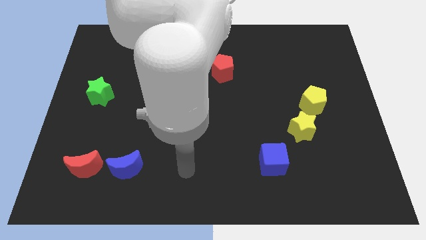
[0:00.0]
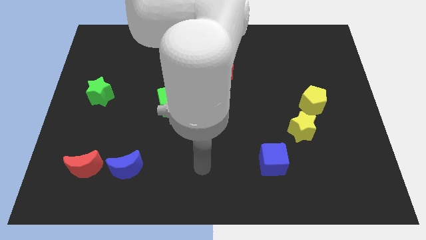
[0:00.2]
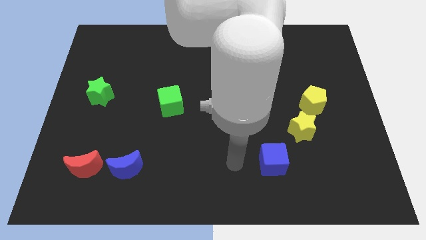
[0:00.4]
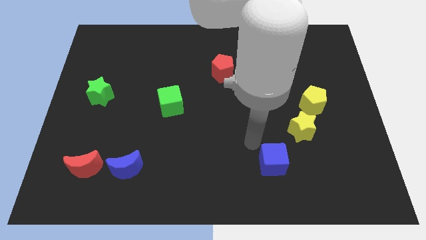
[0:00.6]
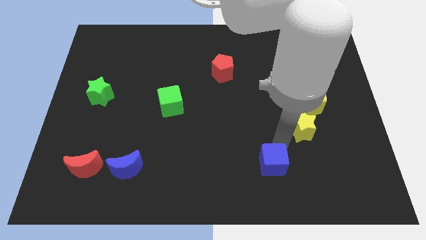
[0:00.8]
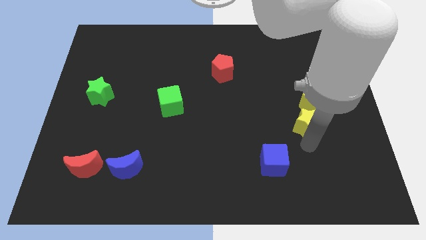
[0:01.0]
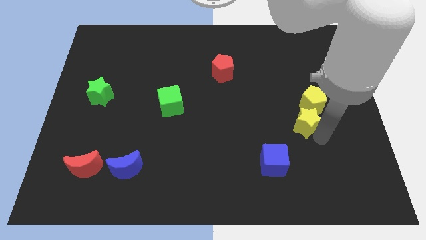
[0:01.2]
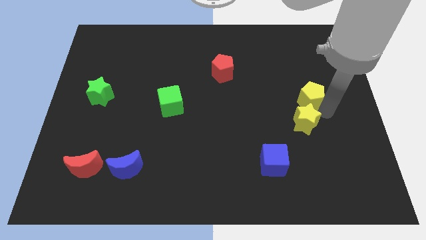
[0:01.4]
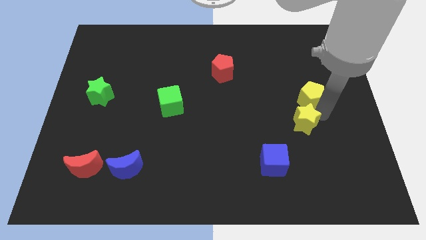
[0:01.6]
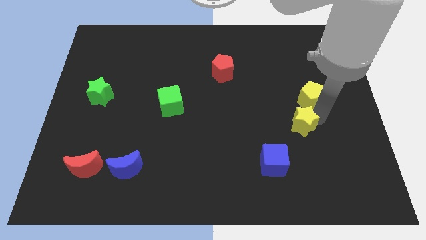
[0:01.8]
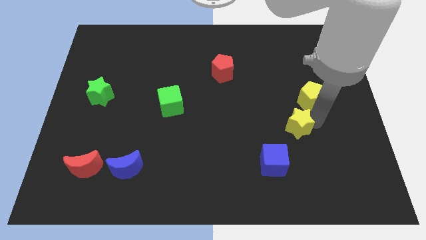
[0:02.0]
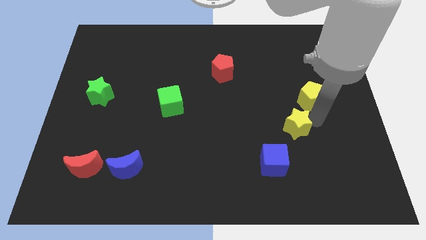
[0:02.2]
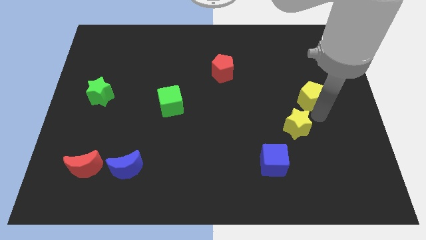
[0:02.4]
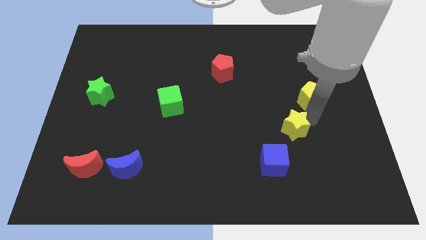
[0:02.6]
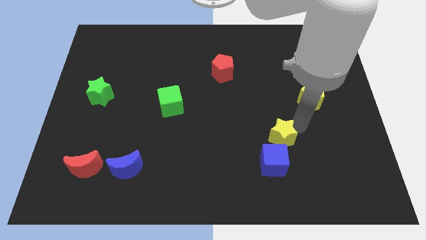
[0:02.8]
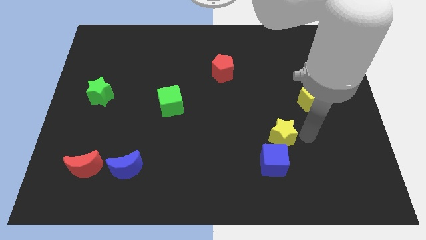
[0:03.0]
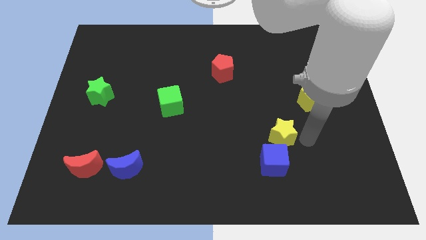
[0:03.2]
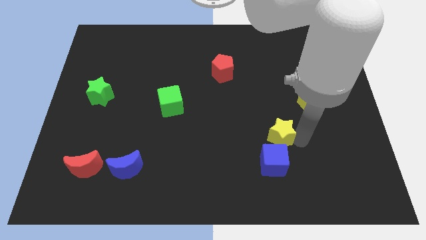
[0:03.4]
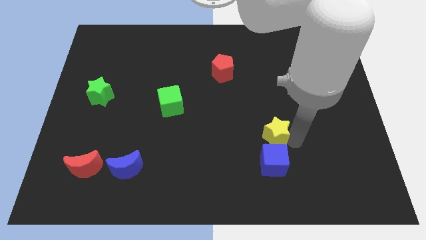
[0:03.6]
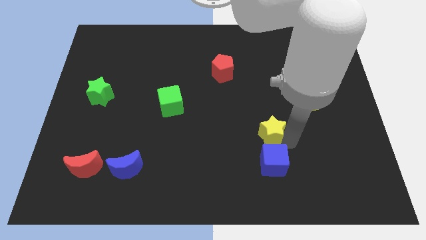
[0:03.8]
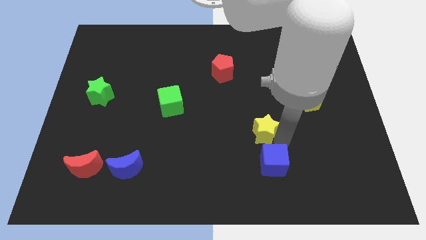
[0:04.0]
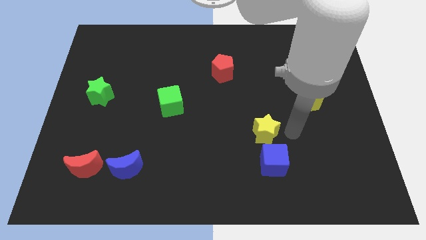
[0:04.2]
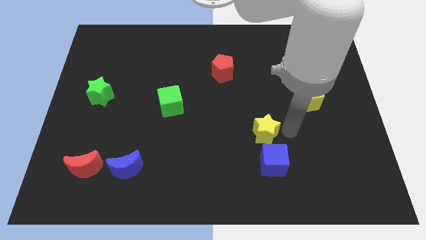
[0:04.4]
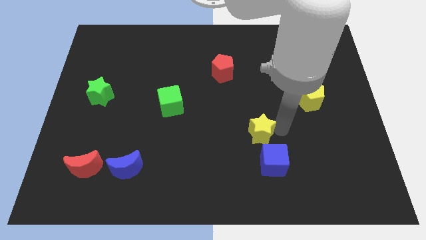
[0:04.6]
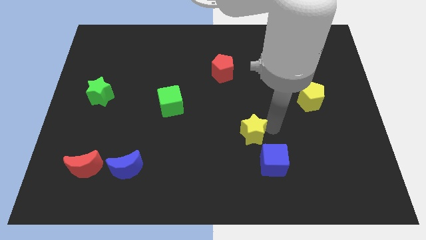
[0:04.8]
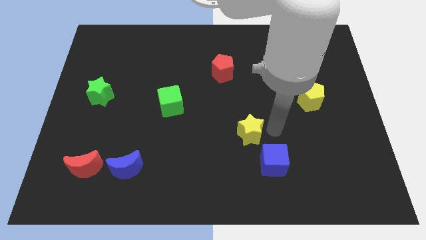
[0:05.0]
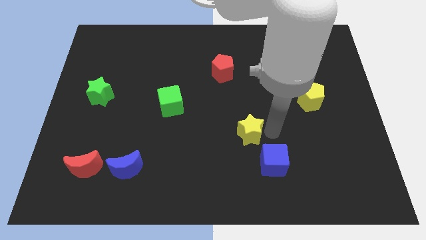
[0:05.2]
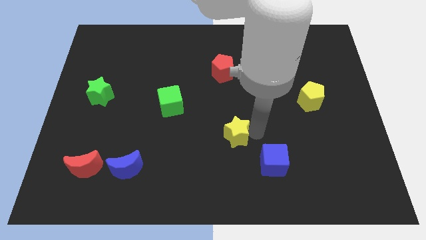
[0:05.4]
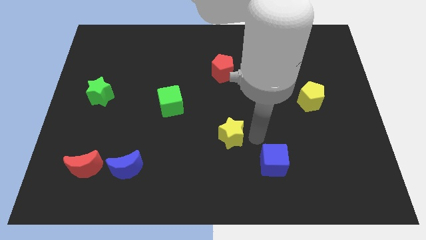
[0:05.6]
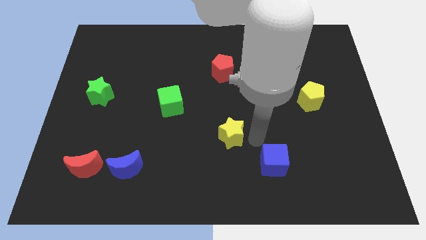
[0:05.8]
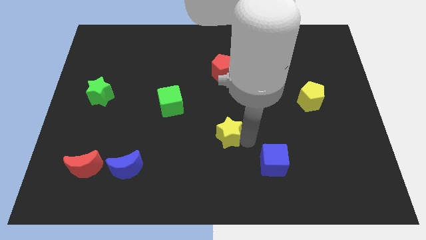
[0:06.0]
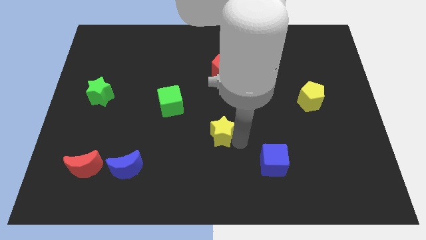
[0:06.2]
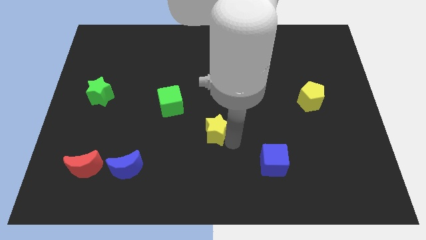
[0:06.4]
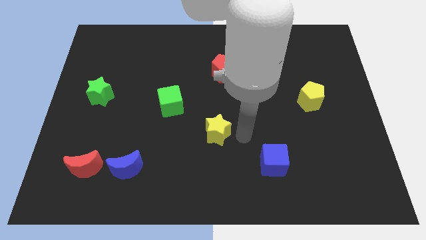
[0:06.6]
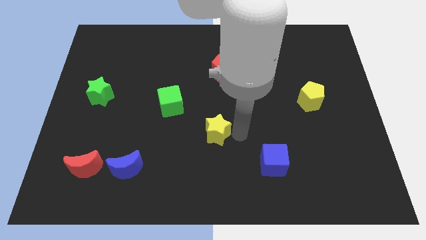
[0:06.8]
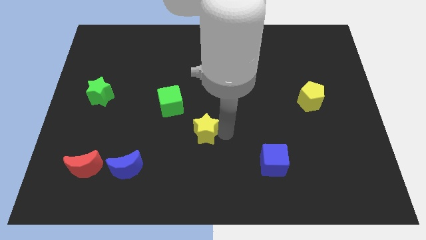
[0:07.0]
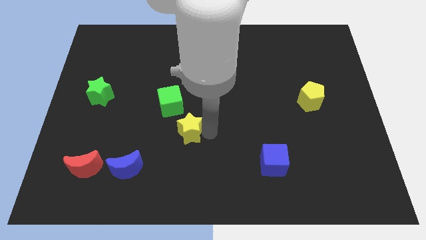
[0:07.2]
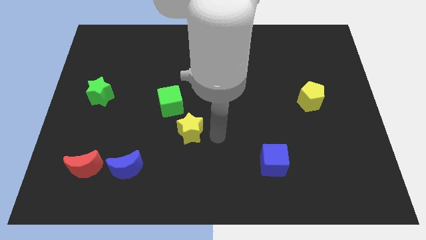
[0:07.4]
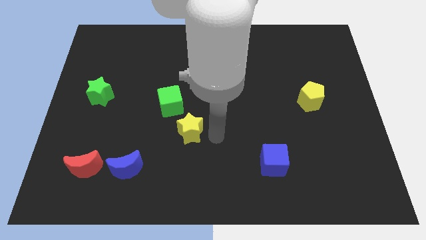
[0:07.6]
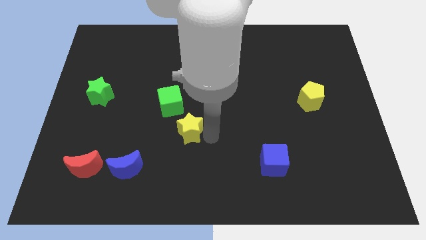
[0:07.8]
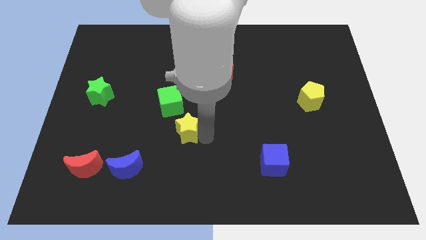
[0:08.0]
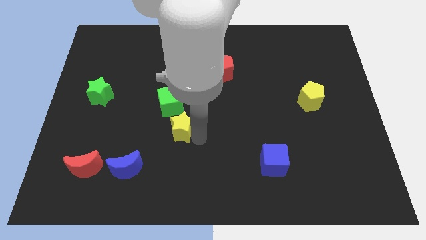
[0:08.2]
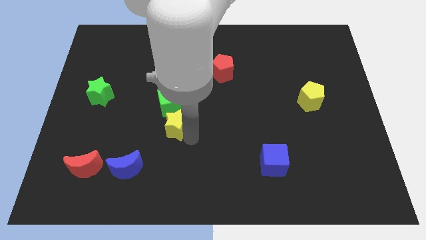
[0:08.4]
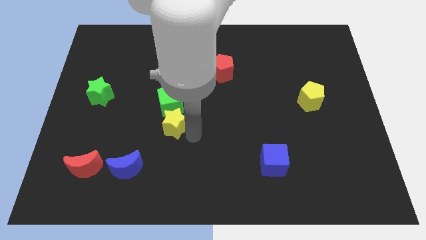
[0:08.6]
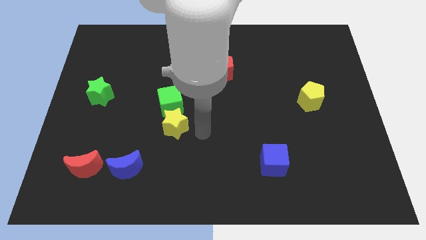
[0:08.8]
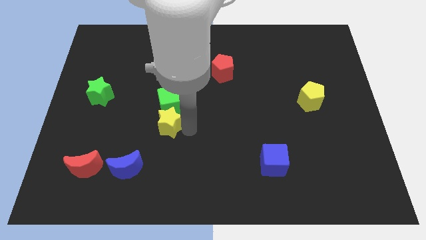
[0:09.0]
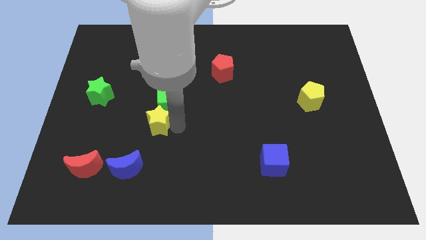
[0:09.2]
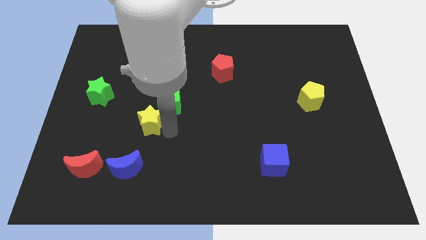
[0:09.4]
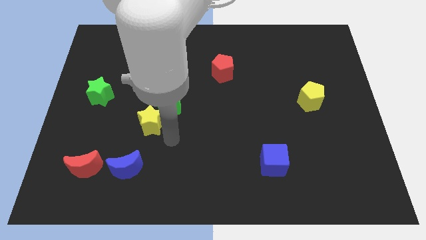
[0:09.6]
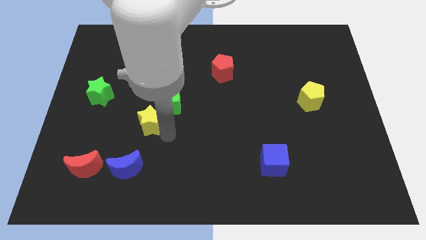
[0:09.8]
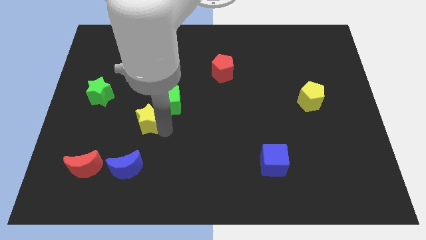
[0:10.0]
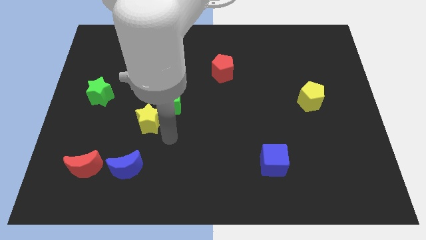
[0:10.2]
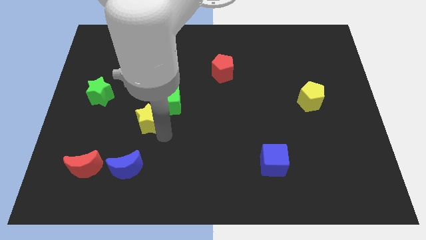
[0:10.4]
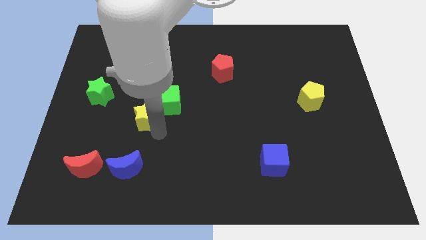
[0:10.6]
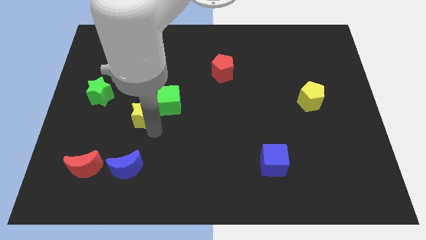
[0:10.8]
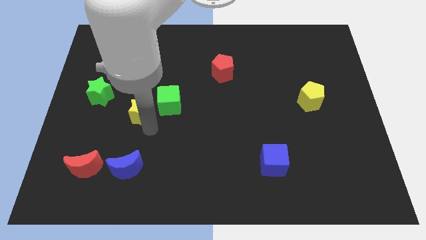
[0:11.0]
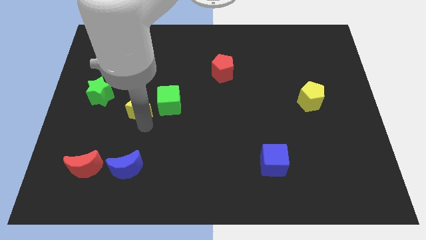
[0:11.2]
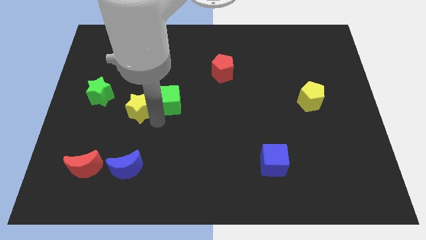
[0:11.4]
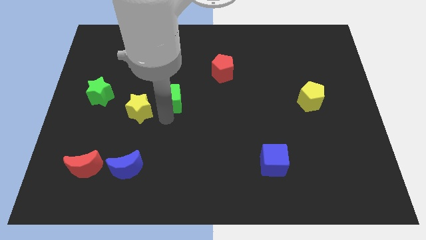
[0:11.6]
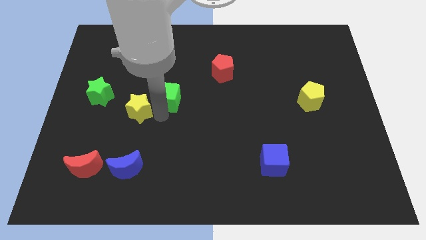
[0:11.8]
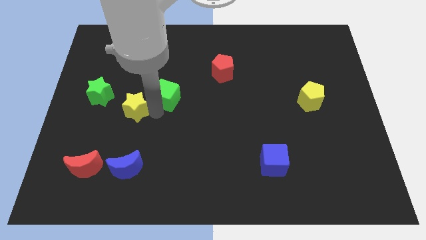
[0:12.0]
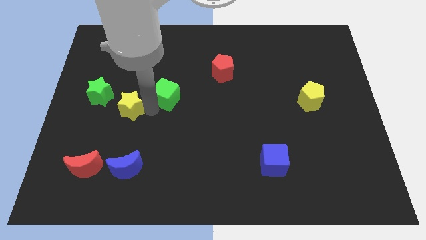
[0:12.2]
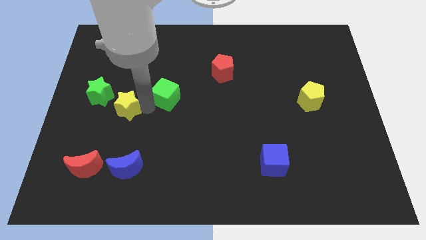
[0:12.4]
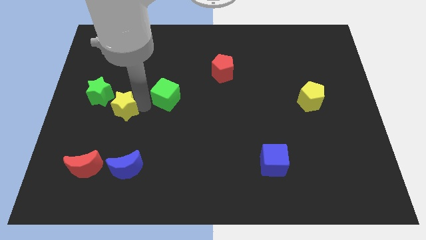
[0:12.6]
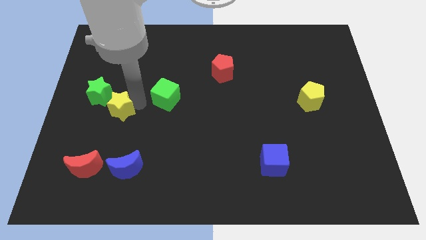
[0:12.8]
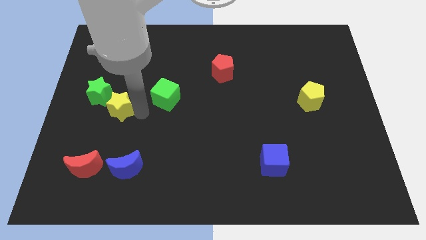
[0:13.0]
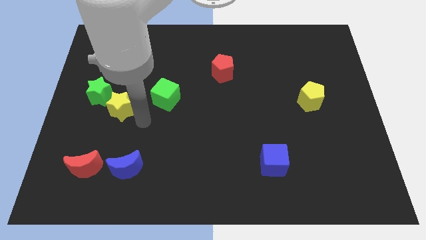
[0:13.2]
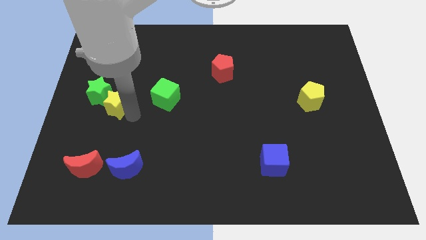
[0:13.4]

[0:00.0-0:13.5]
push the yellow star towards the green star

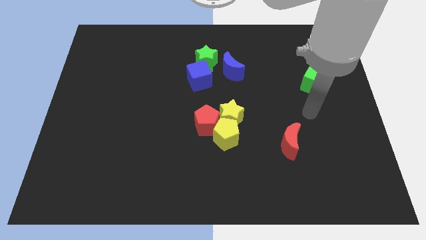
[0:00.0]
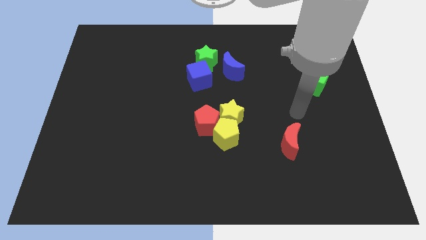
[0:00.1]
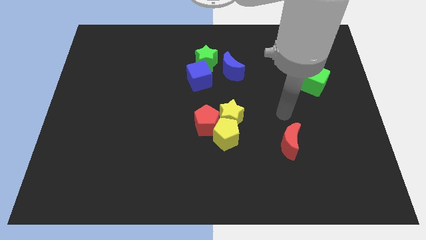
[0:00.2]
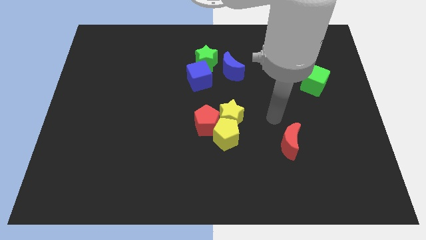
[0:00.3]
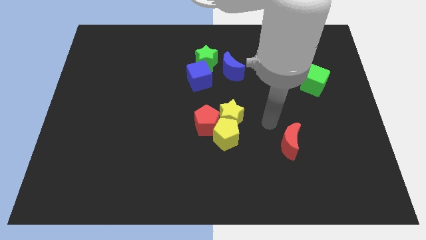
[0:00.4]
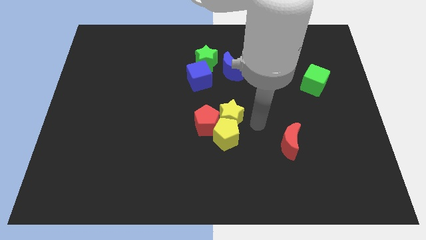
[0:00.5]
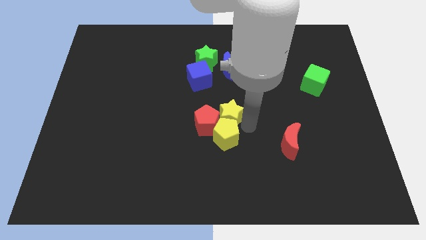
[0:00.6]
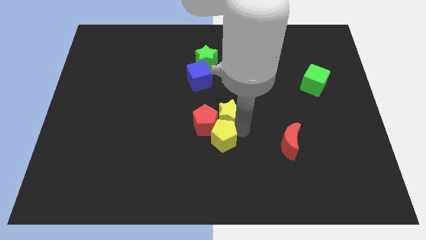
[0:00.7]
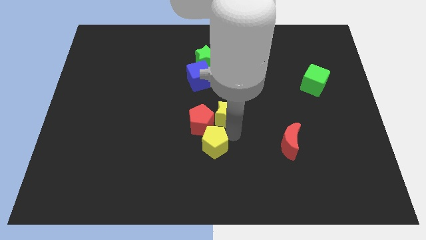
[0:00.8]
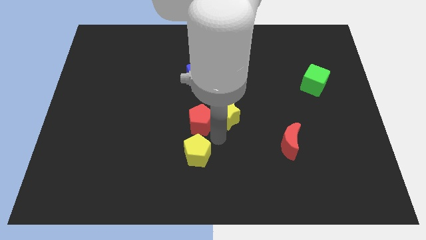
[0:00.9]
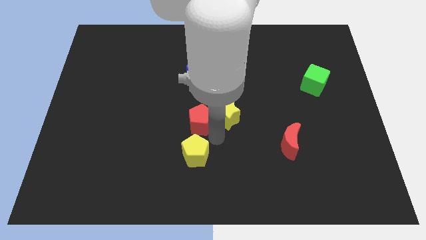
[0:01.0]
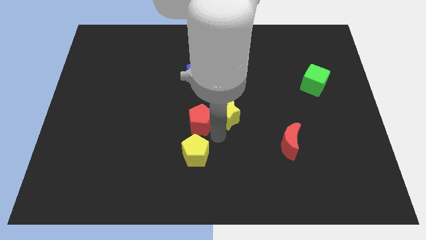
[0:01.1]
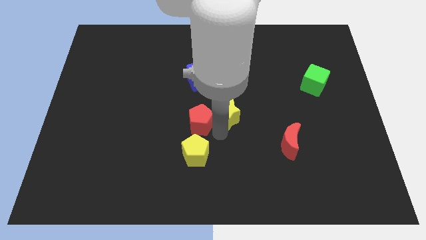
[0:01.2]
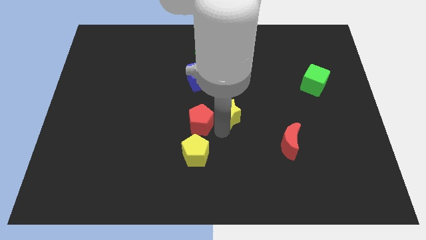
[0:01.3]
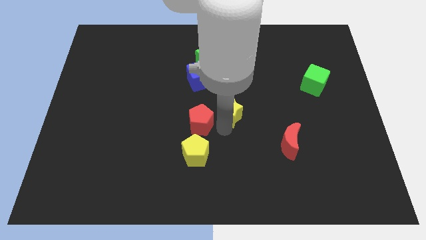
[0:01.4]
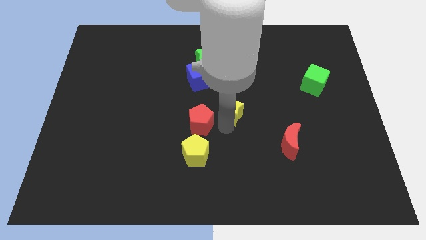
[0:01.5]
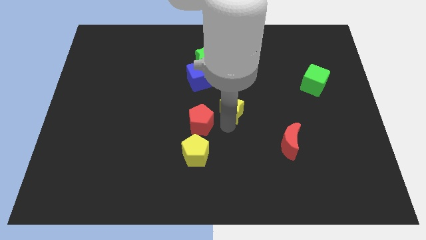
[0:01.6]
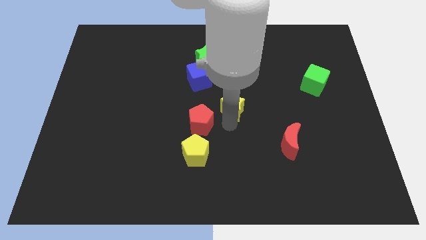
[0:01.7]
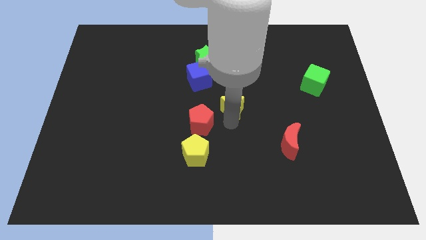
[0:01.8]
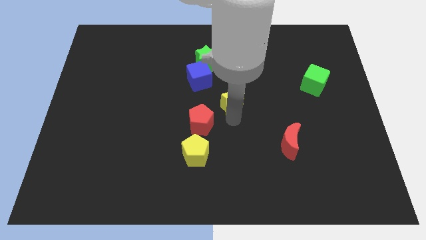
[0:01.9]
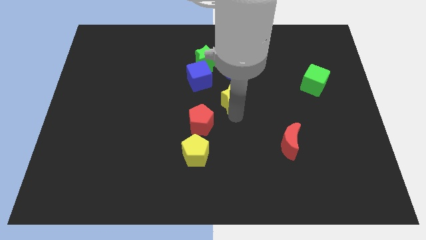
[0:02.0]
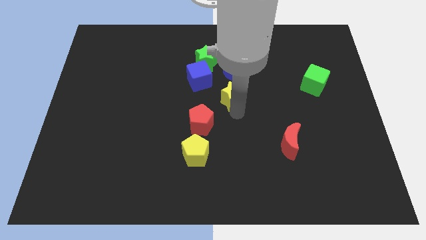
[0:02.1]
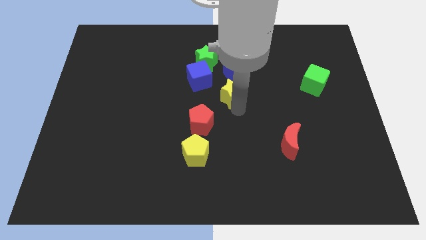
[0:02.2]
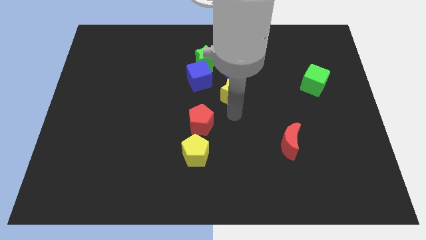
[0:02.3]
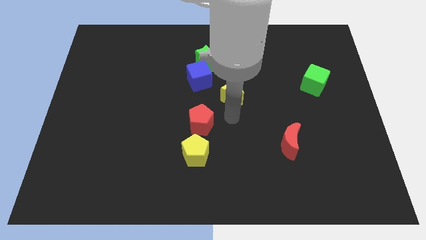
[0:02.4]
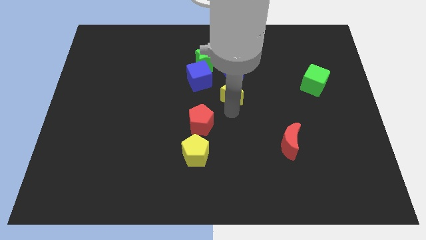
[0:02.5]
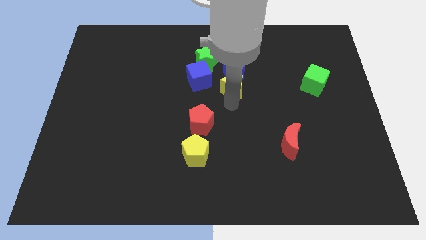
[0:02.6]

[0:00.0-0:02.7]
slide the yellow star close to the blue moon
